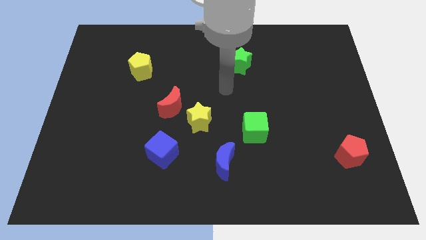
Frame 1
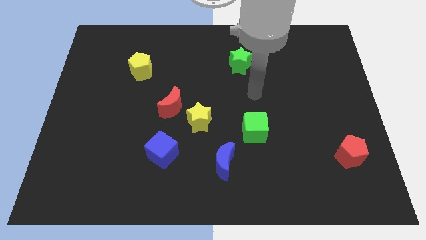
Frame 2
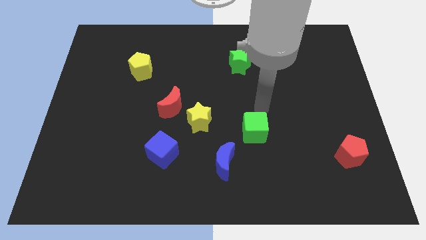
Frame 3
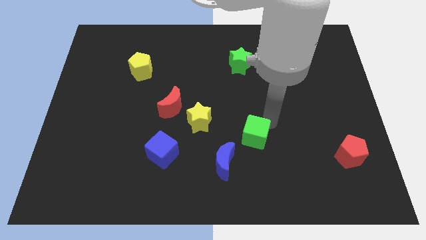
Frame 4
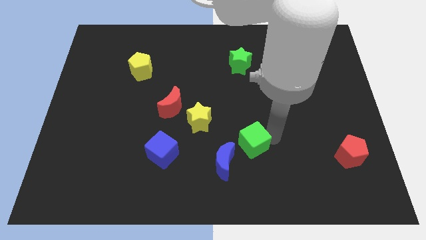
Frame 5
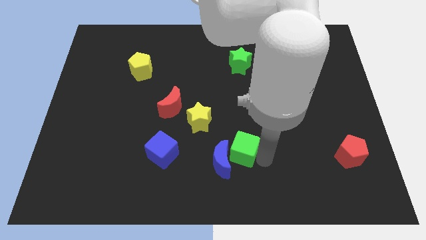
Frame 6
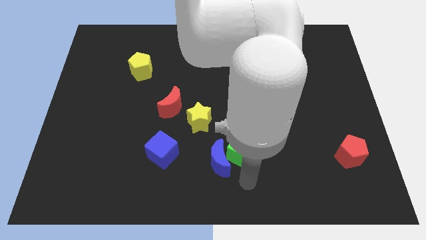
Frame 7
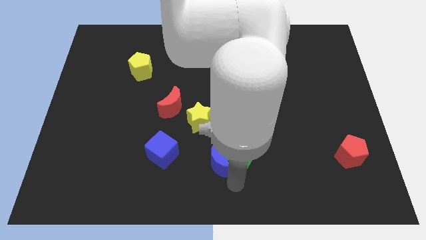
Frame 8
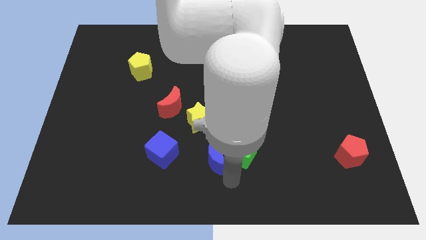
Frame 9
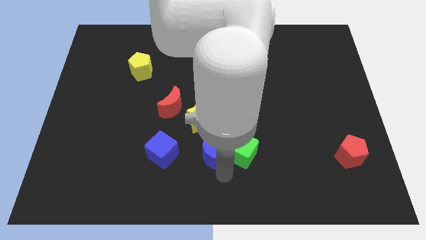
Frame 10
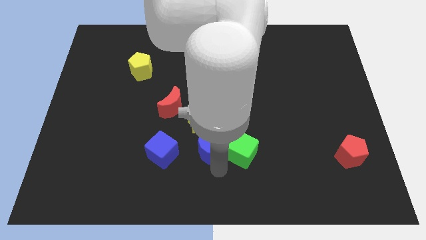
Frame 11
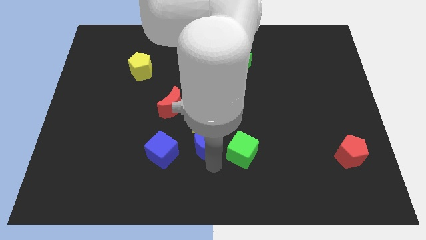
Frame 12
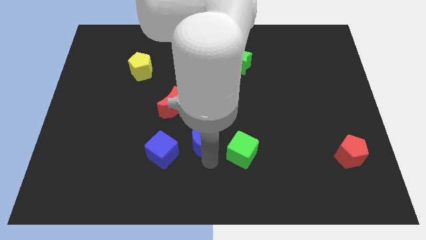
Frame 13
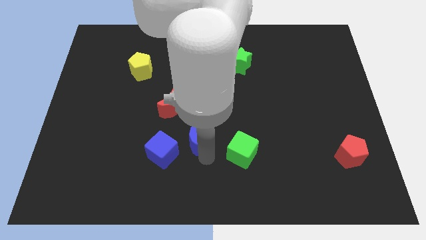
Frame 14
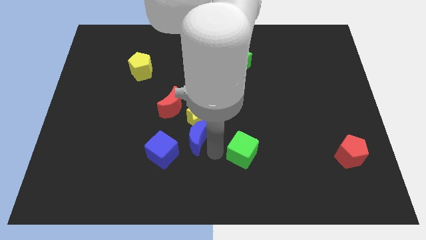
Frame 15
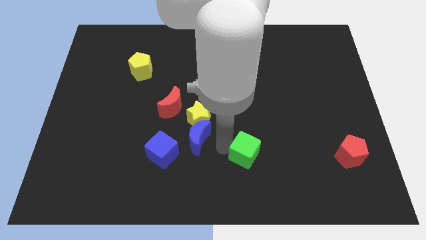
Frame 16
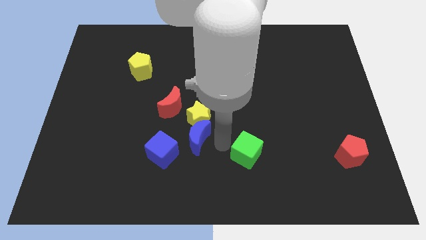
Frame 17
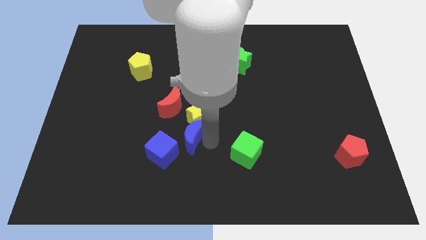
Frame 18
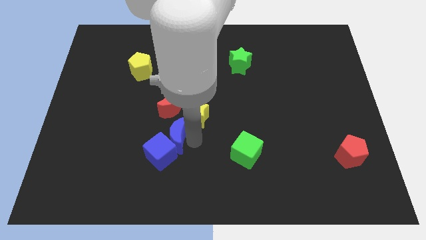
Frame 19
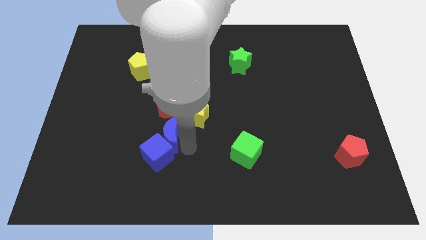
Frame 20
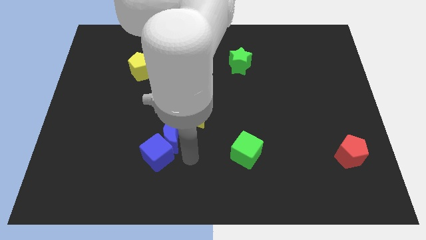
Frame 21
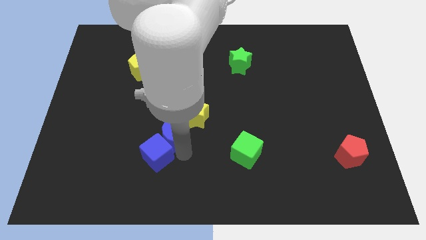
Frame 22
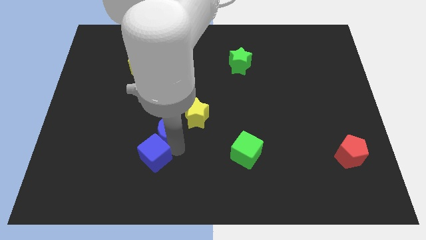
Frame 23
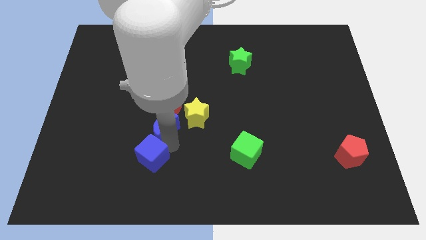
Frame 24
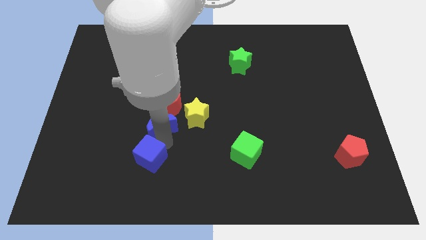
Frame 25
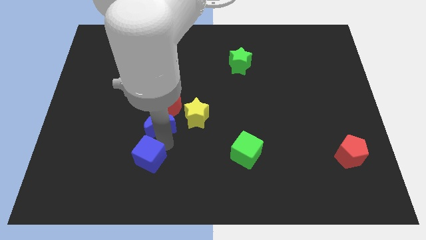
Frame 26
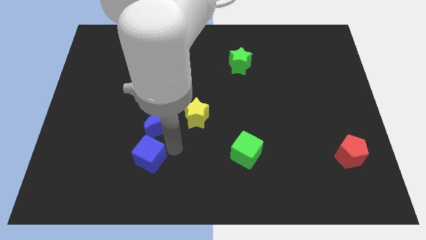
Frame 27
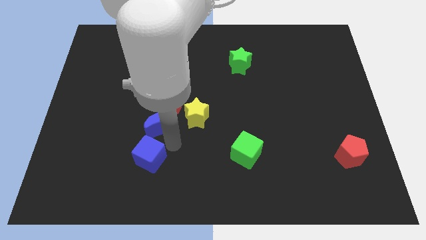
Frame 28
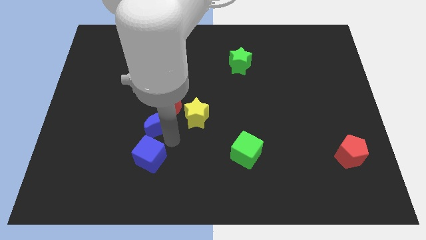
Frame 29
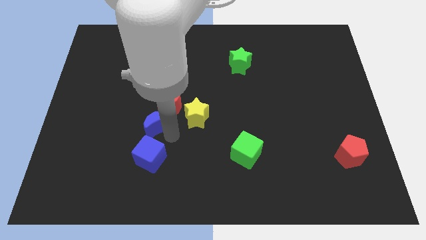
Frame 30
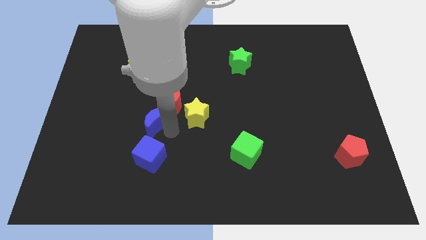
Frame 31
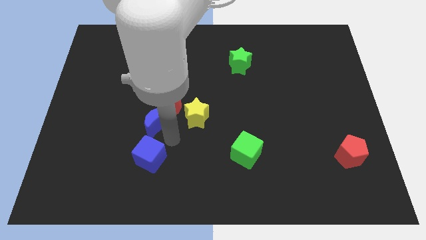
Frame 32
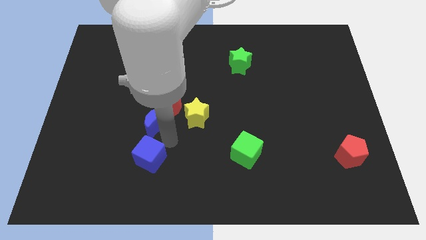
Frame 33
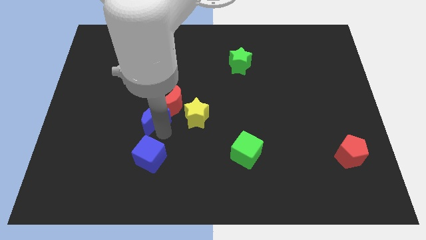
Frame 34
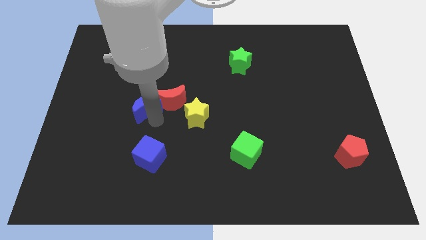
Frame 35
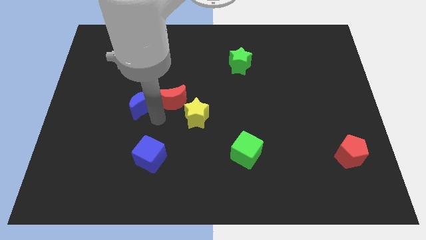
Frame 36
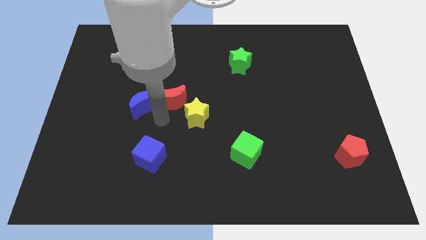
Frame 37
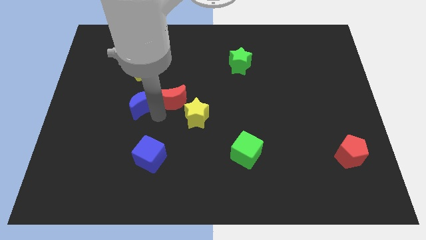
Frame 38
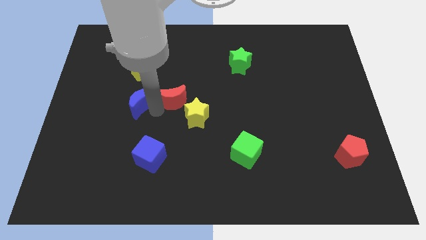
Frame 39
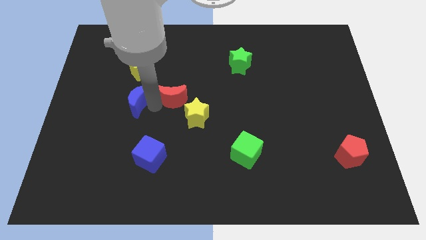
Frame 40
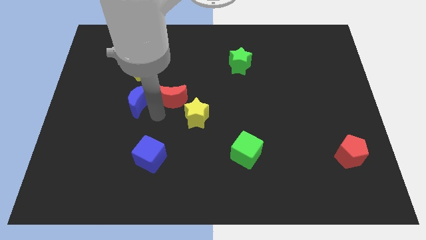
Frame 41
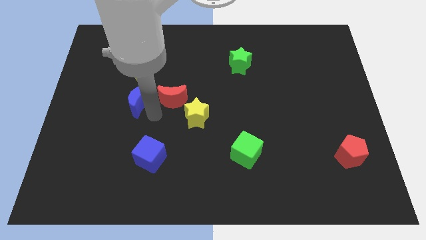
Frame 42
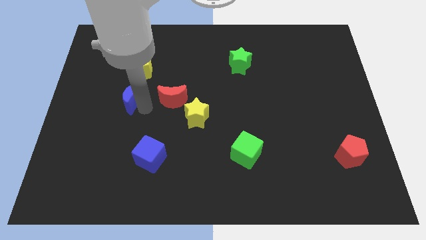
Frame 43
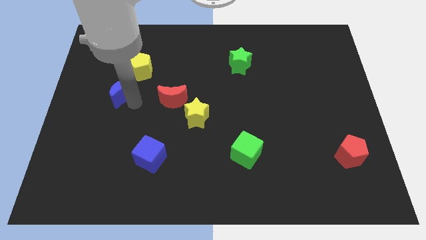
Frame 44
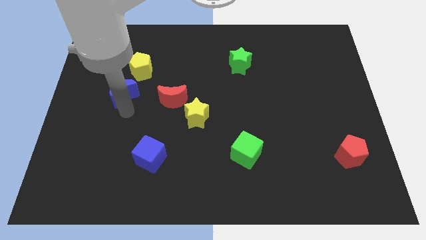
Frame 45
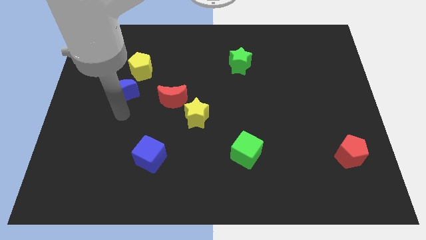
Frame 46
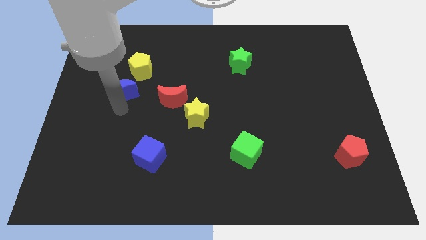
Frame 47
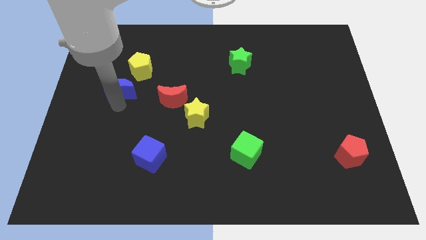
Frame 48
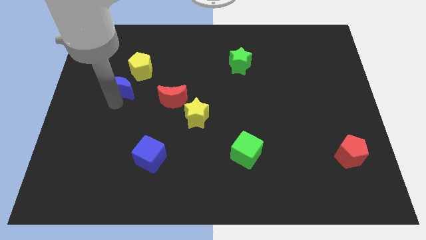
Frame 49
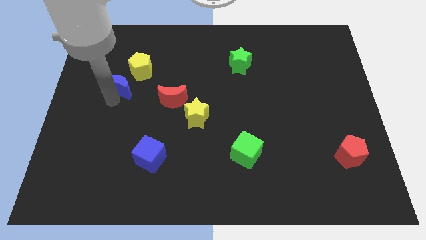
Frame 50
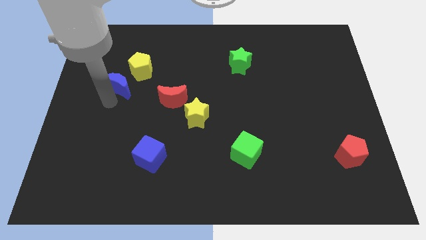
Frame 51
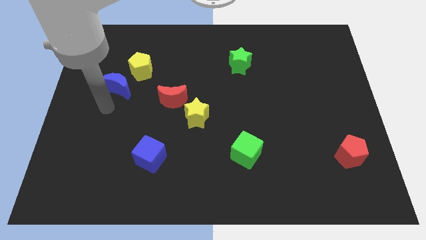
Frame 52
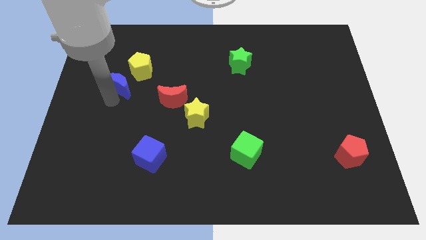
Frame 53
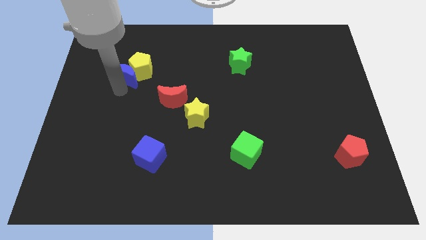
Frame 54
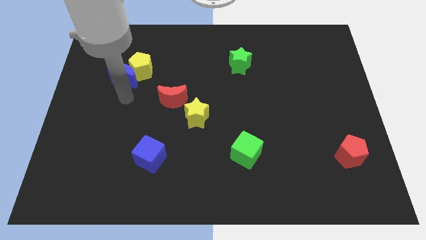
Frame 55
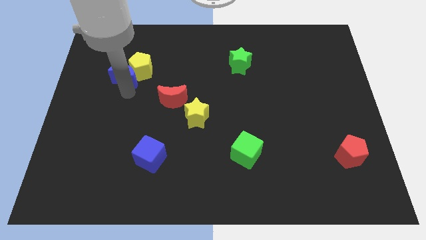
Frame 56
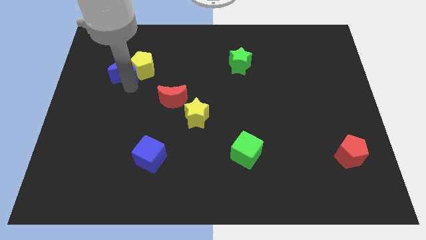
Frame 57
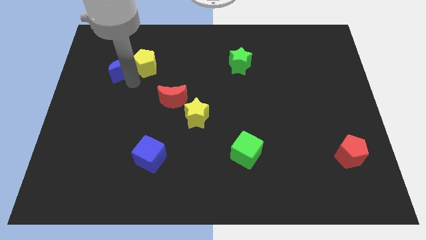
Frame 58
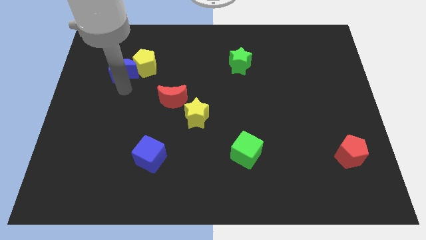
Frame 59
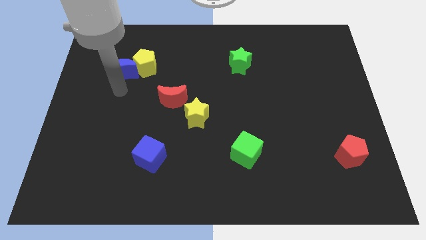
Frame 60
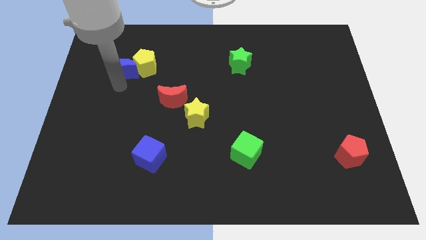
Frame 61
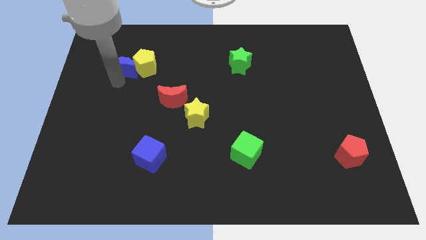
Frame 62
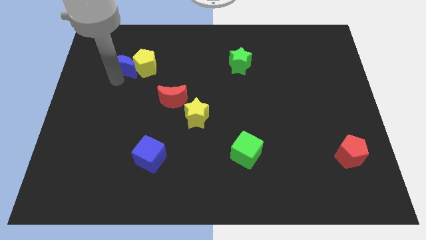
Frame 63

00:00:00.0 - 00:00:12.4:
put the blue moon to the top left of the yellow pentagon

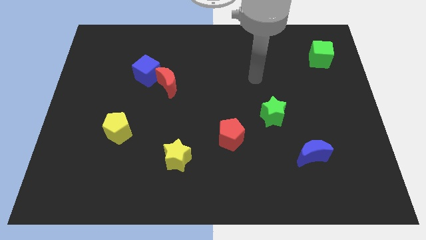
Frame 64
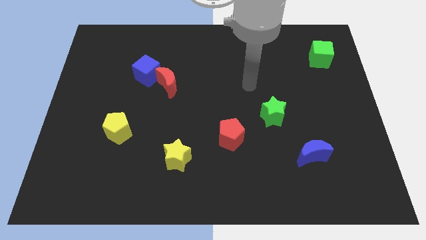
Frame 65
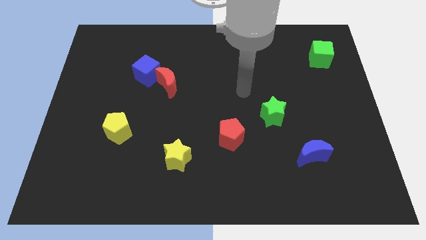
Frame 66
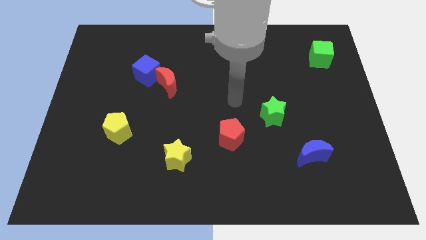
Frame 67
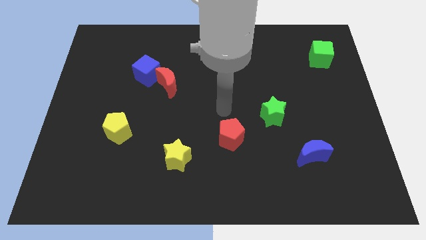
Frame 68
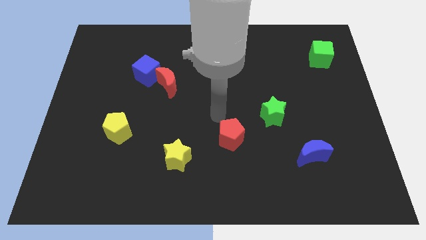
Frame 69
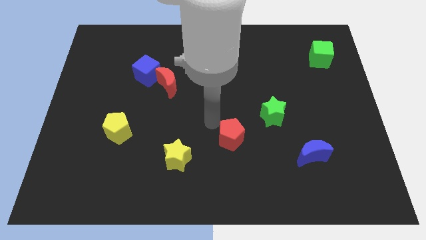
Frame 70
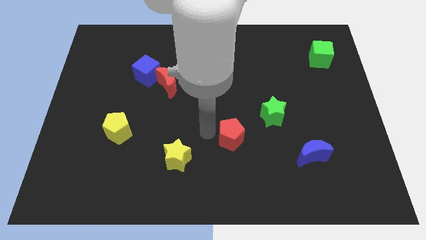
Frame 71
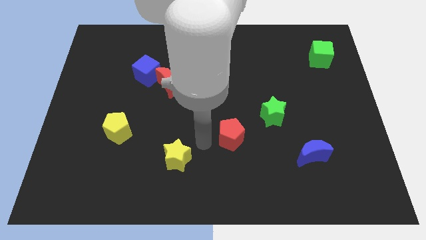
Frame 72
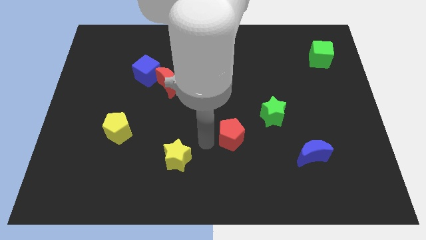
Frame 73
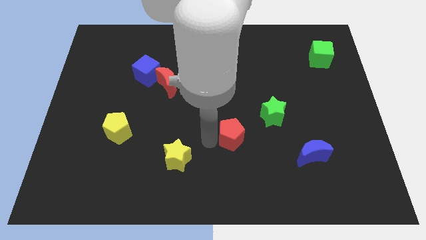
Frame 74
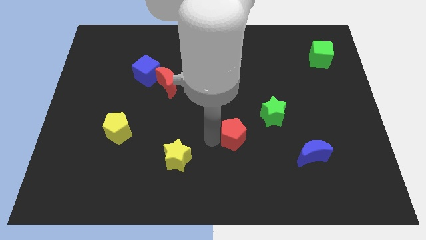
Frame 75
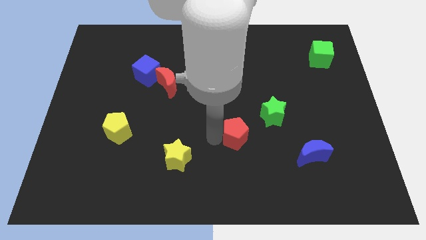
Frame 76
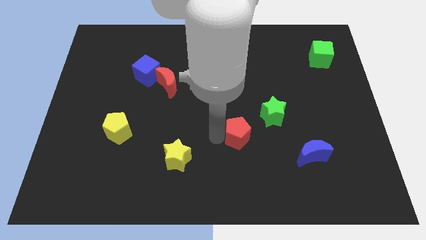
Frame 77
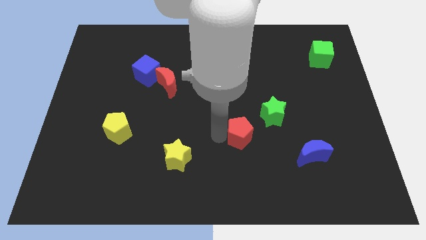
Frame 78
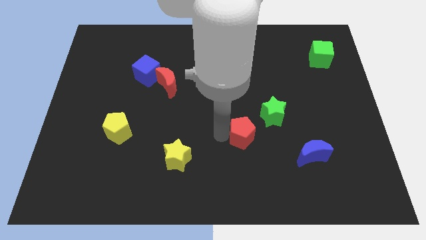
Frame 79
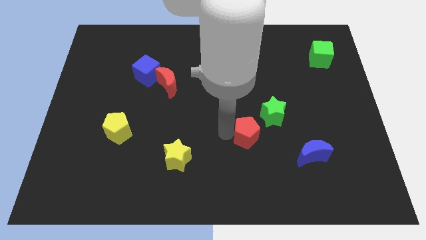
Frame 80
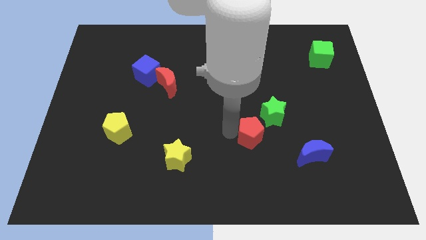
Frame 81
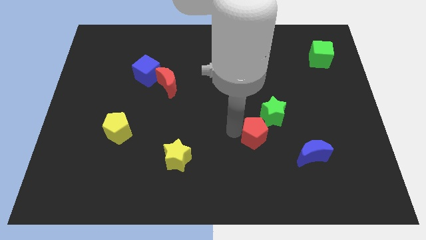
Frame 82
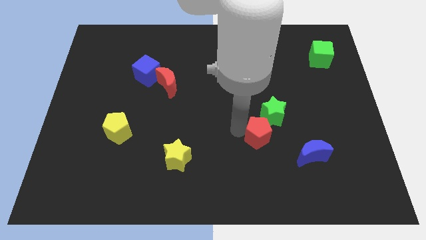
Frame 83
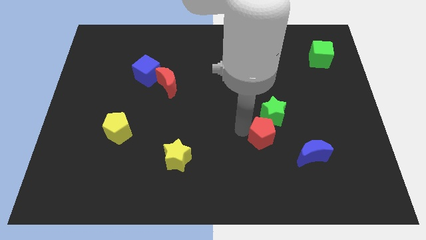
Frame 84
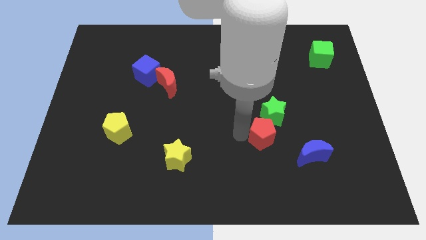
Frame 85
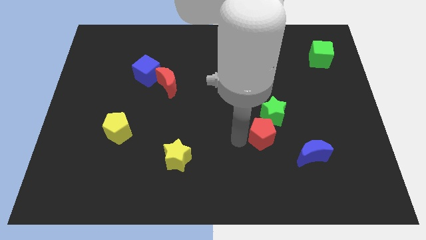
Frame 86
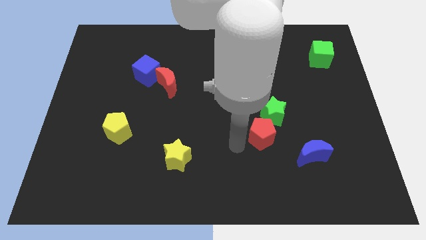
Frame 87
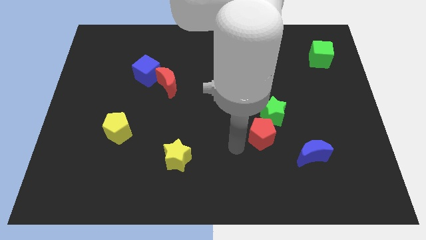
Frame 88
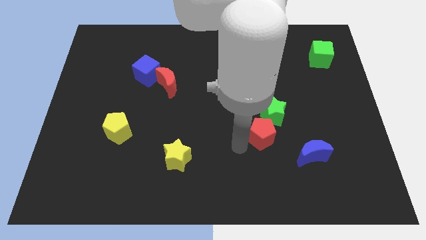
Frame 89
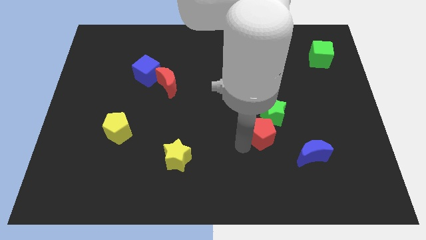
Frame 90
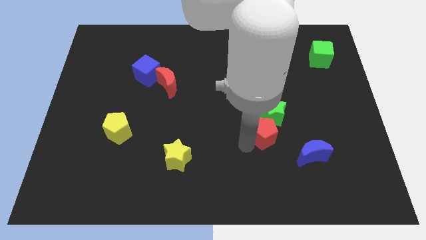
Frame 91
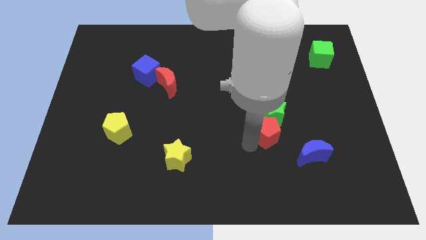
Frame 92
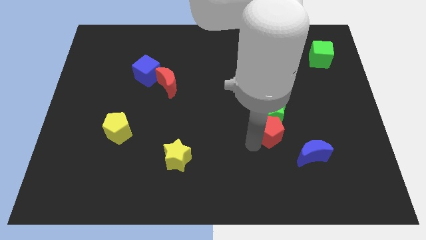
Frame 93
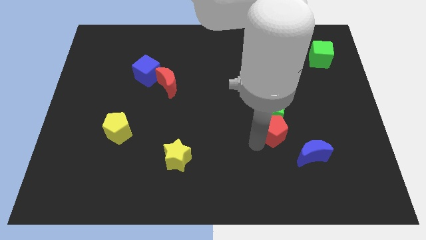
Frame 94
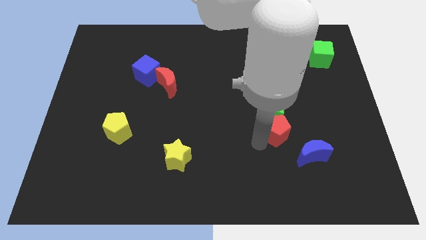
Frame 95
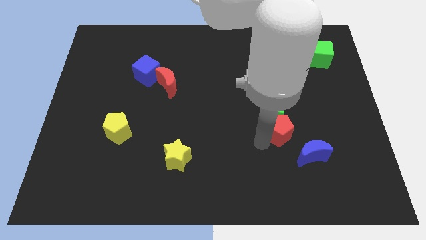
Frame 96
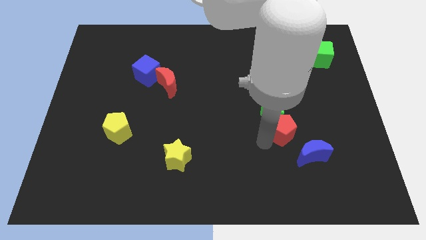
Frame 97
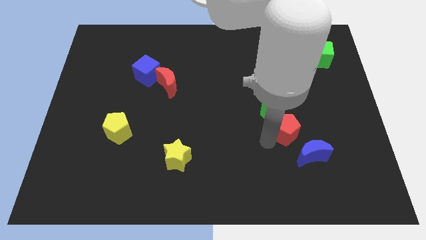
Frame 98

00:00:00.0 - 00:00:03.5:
push the red pentagon to the top of the blue moon
